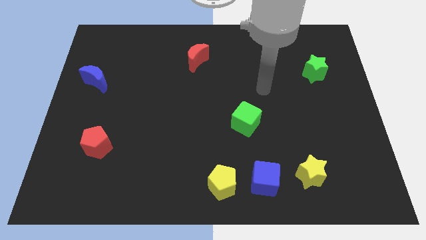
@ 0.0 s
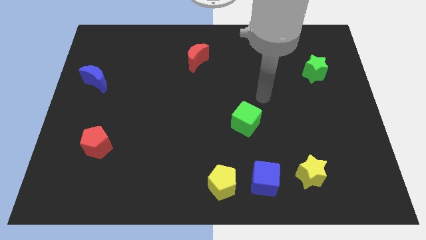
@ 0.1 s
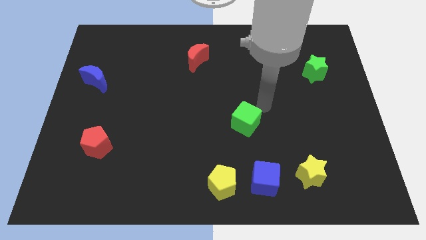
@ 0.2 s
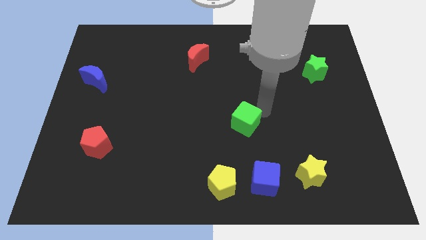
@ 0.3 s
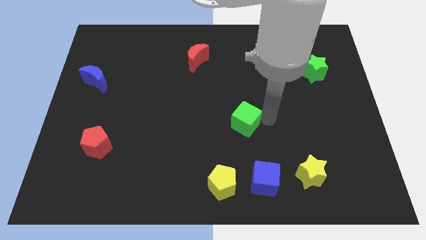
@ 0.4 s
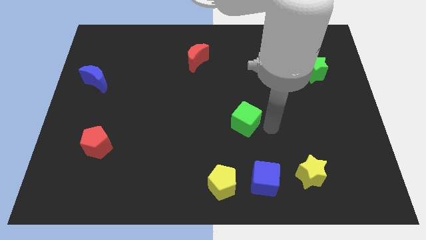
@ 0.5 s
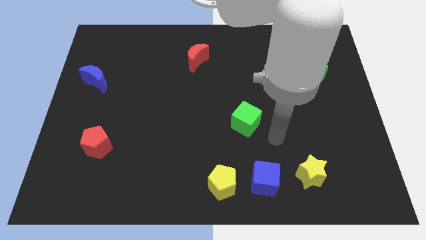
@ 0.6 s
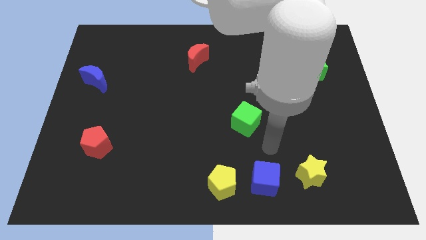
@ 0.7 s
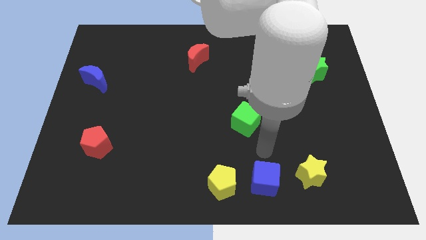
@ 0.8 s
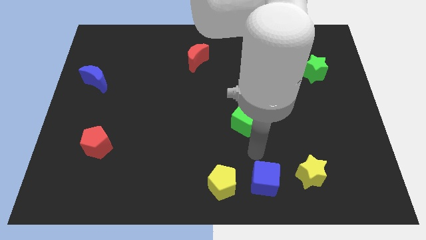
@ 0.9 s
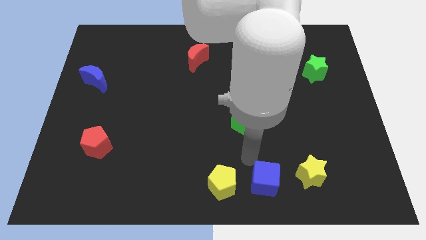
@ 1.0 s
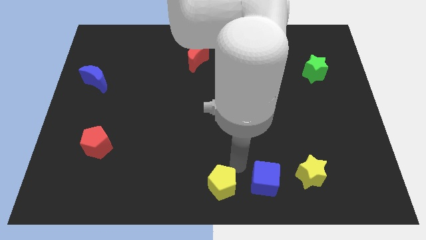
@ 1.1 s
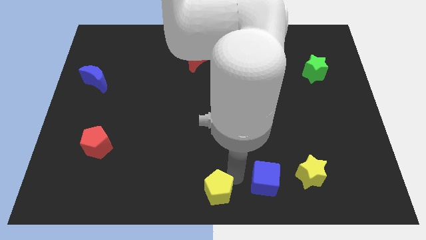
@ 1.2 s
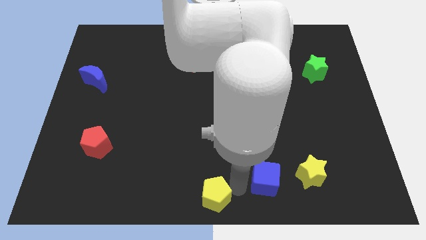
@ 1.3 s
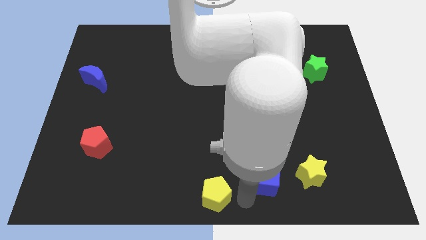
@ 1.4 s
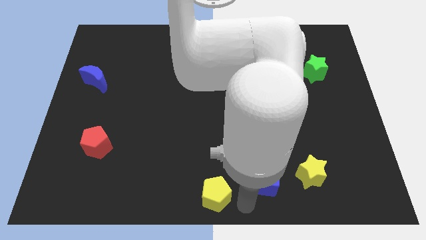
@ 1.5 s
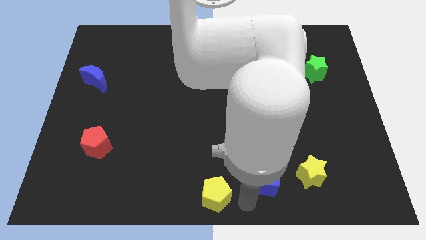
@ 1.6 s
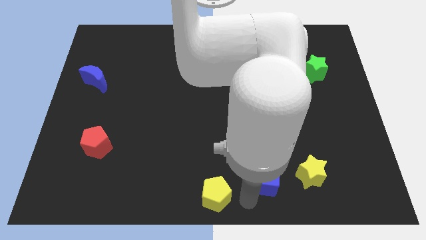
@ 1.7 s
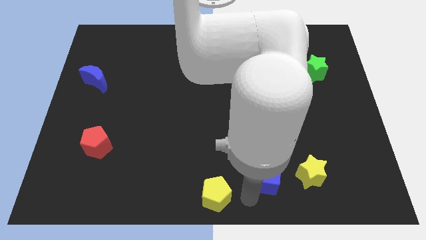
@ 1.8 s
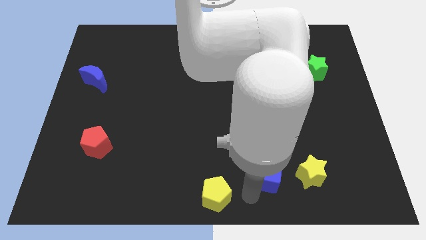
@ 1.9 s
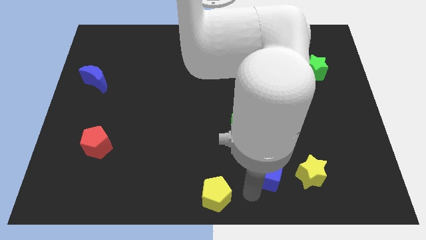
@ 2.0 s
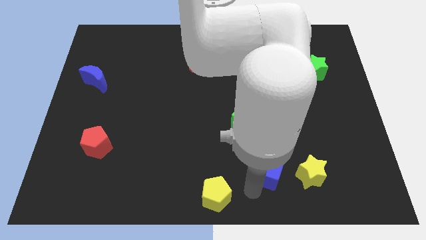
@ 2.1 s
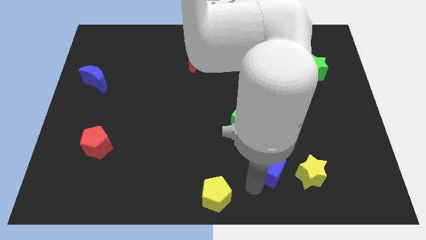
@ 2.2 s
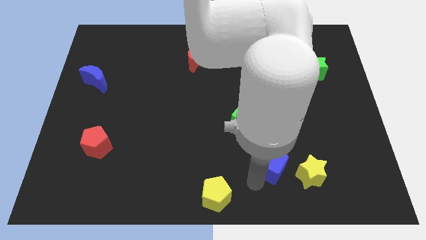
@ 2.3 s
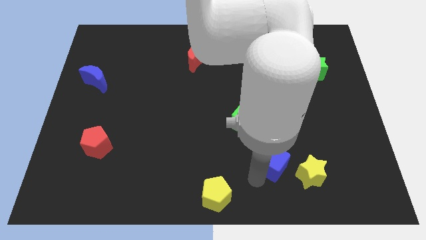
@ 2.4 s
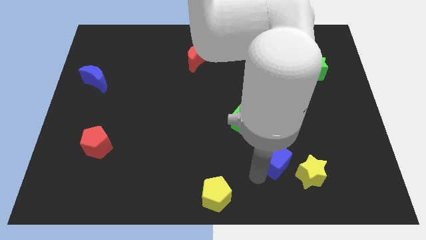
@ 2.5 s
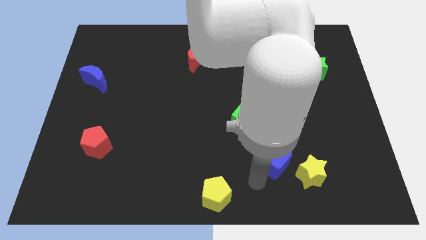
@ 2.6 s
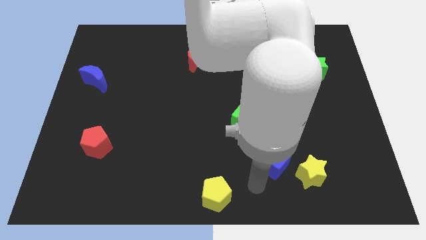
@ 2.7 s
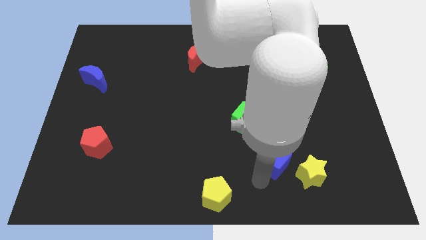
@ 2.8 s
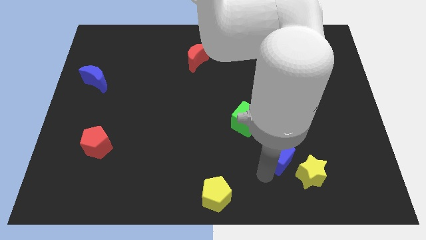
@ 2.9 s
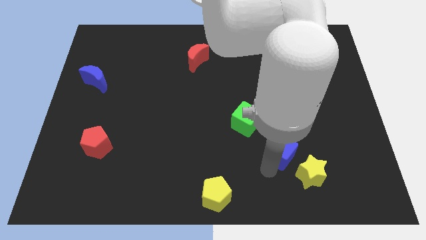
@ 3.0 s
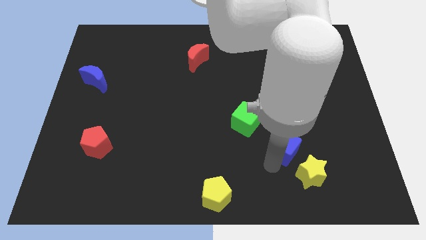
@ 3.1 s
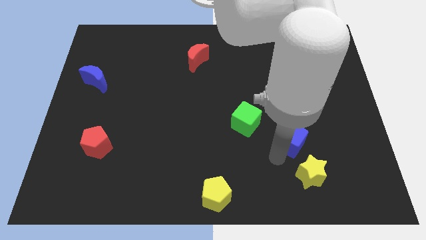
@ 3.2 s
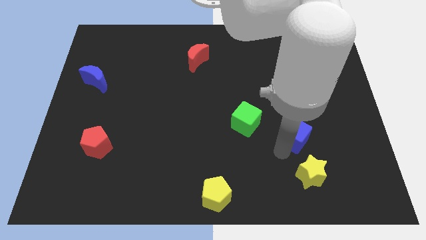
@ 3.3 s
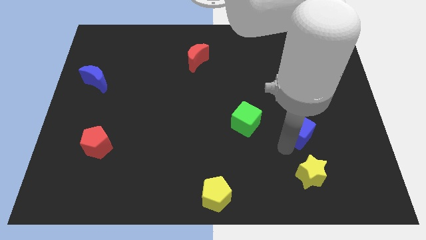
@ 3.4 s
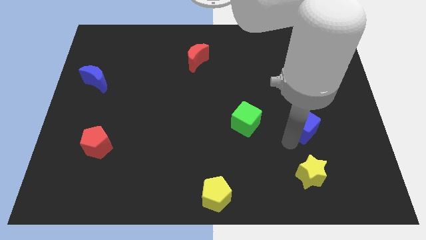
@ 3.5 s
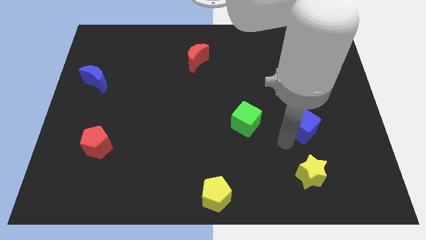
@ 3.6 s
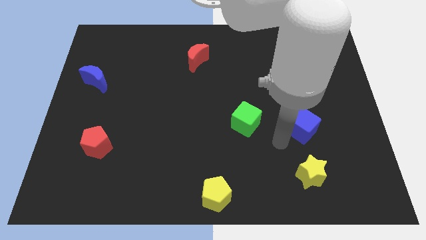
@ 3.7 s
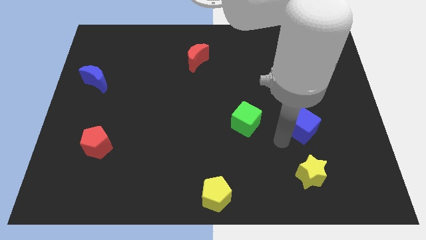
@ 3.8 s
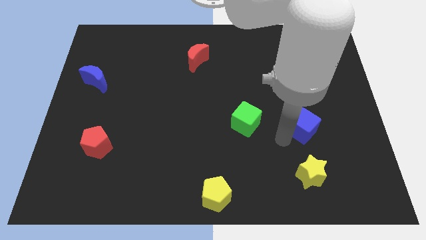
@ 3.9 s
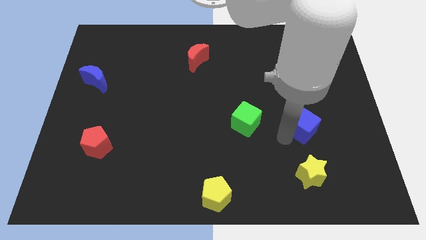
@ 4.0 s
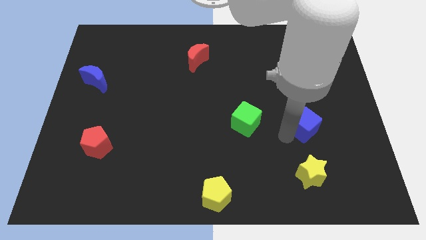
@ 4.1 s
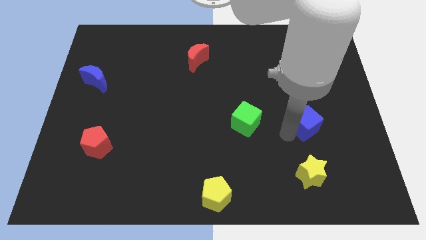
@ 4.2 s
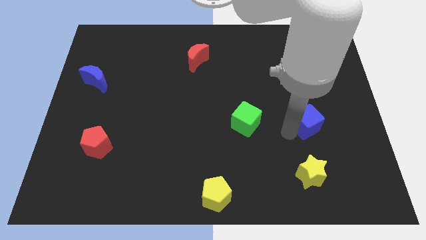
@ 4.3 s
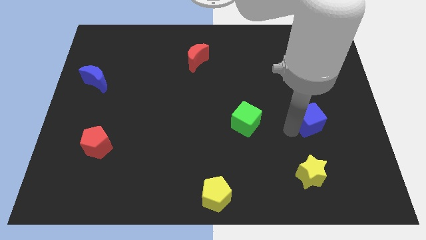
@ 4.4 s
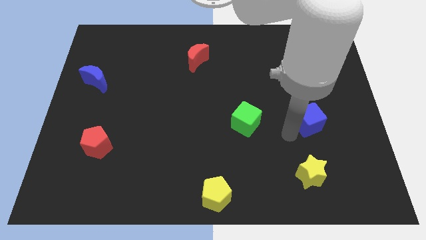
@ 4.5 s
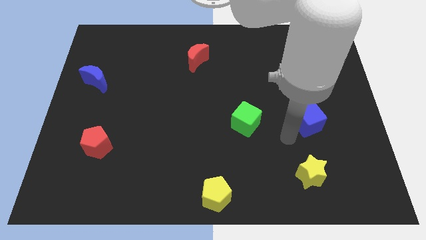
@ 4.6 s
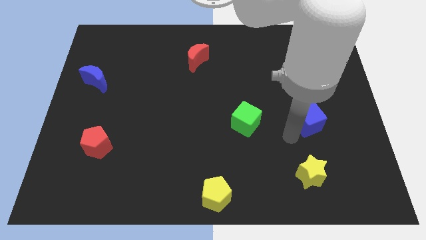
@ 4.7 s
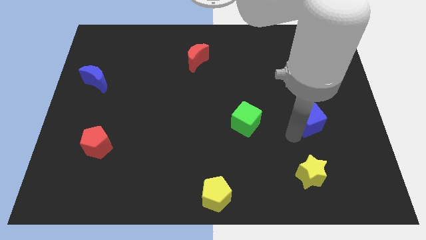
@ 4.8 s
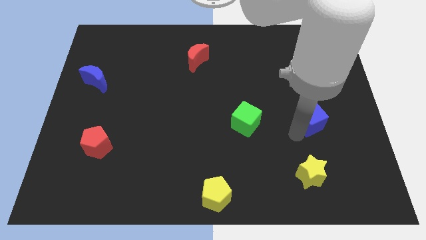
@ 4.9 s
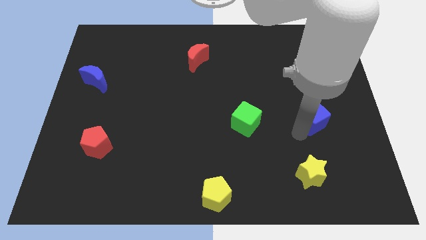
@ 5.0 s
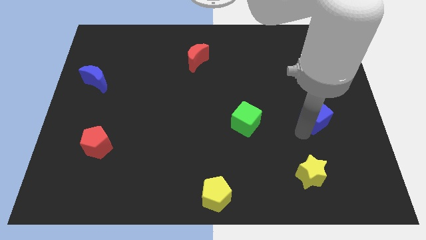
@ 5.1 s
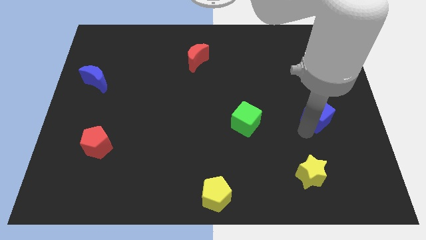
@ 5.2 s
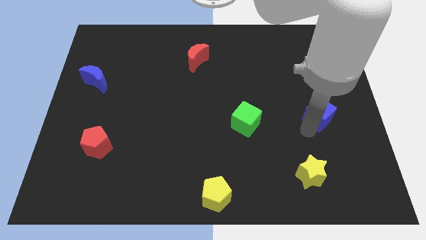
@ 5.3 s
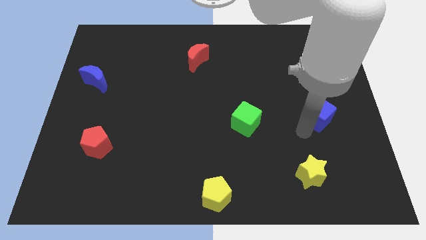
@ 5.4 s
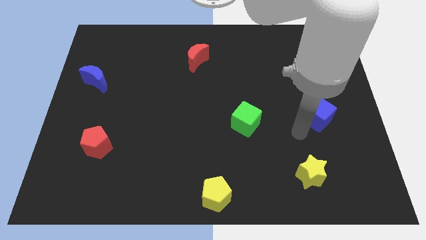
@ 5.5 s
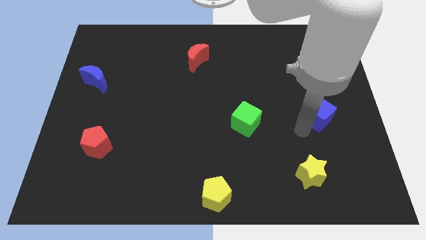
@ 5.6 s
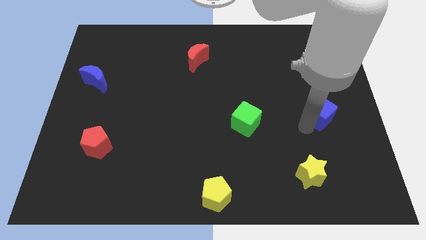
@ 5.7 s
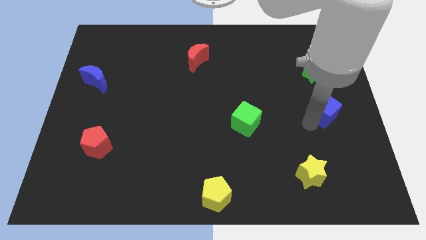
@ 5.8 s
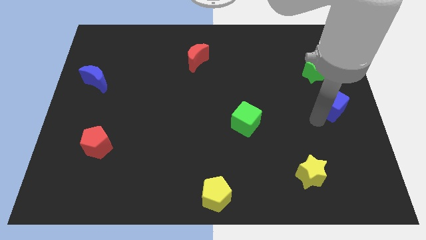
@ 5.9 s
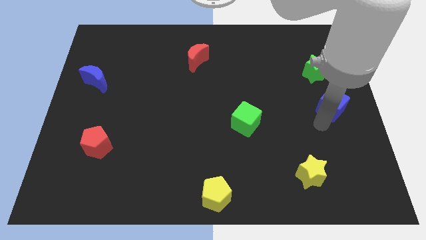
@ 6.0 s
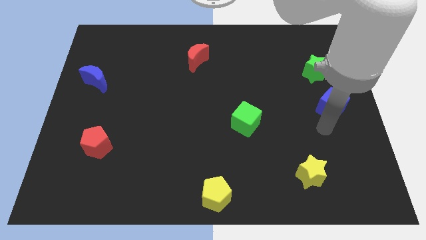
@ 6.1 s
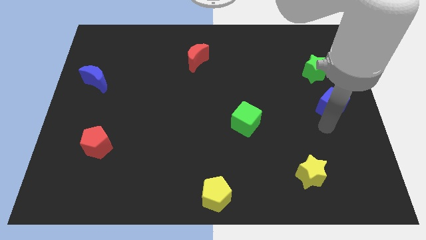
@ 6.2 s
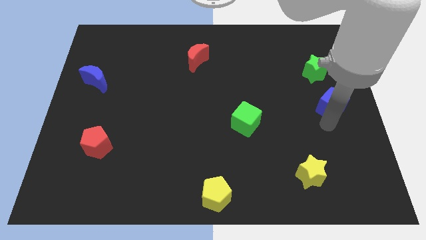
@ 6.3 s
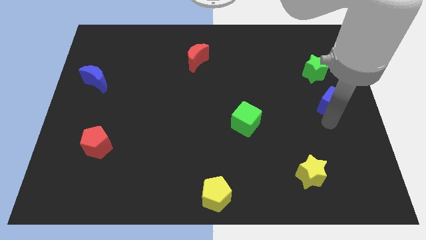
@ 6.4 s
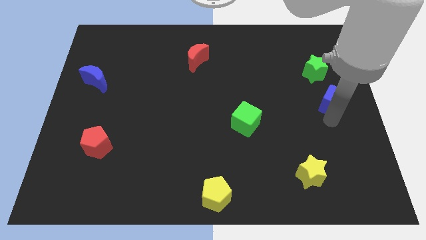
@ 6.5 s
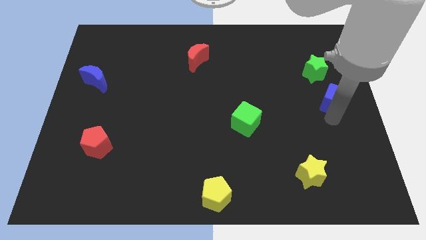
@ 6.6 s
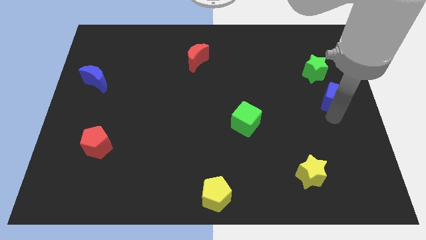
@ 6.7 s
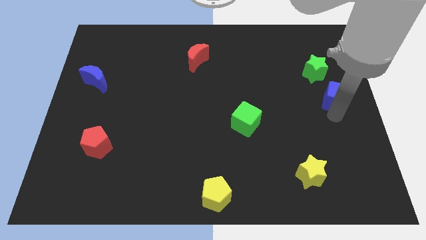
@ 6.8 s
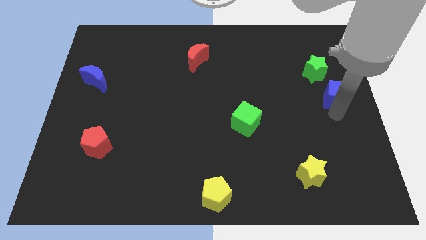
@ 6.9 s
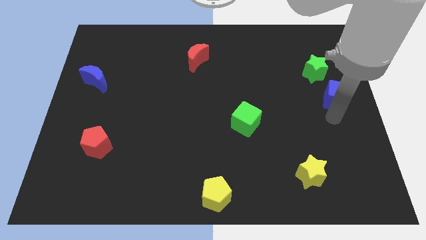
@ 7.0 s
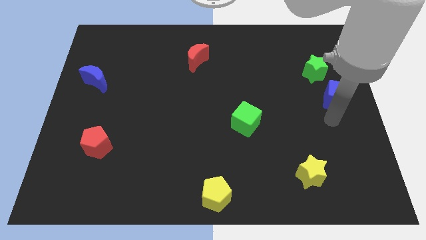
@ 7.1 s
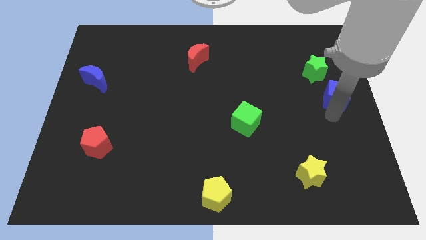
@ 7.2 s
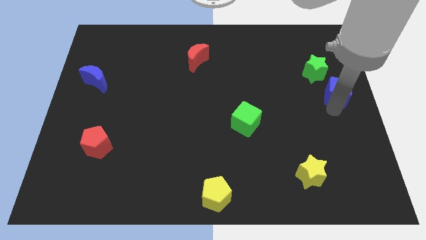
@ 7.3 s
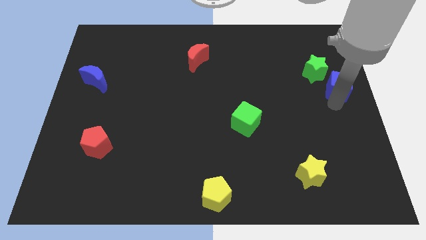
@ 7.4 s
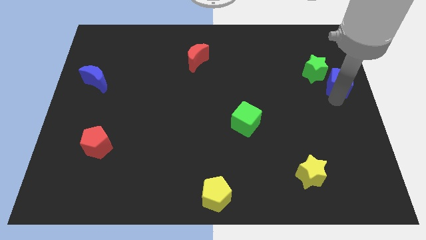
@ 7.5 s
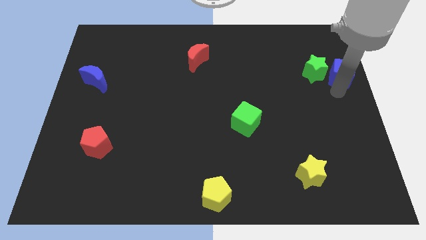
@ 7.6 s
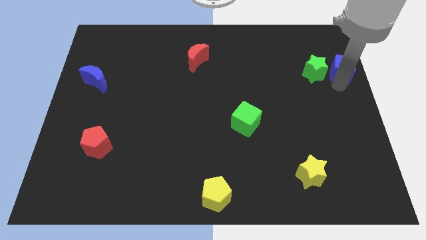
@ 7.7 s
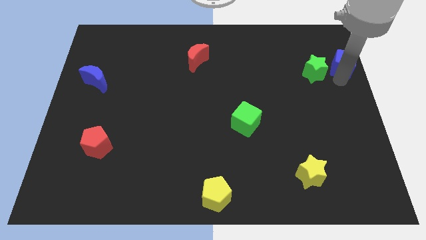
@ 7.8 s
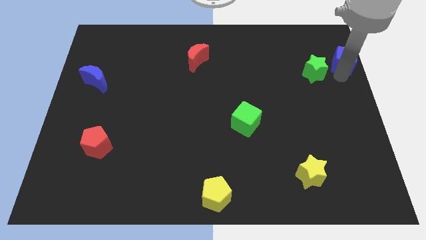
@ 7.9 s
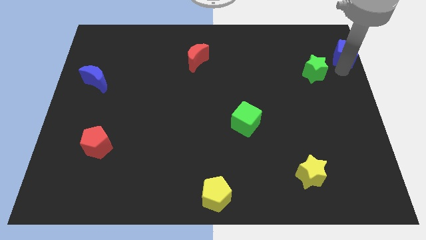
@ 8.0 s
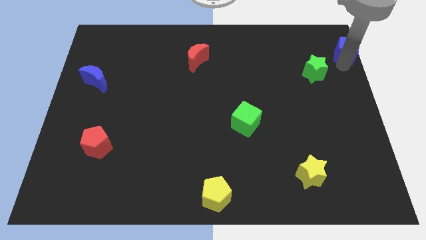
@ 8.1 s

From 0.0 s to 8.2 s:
slide the blue cube to the top right
